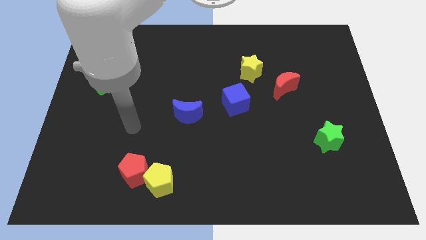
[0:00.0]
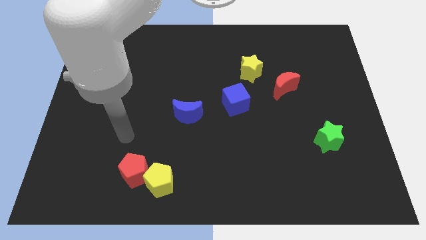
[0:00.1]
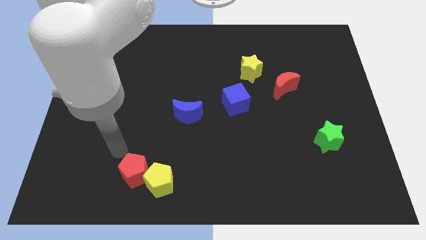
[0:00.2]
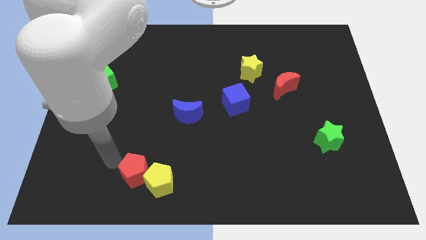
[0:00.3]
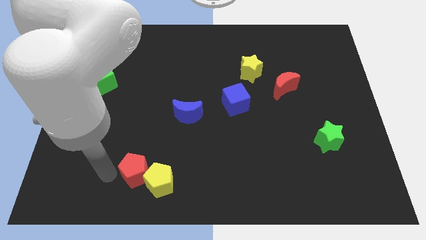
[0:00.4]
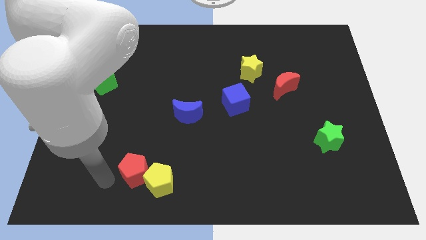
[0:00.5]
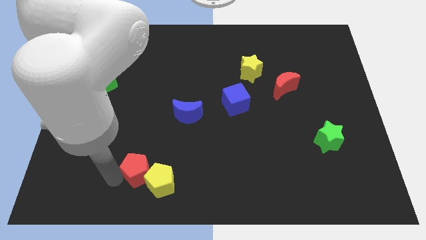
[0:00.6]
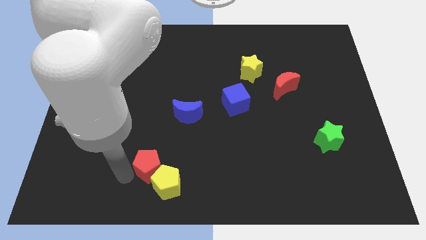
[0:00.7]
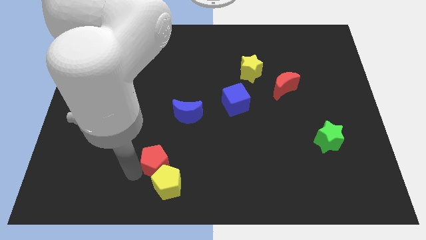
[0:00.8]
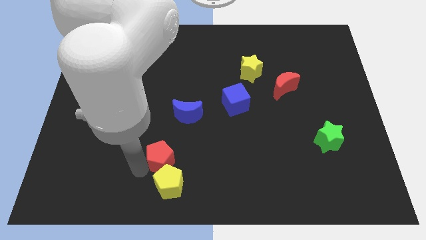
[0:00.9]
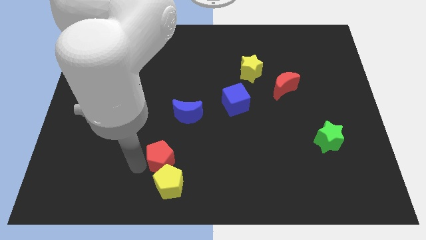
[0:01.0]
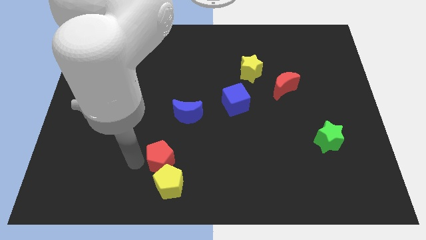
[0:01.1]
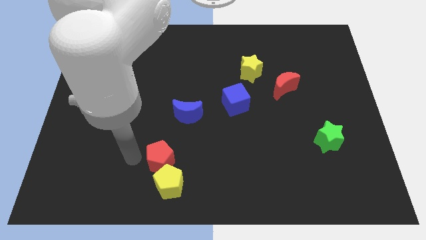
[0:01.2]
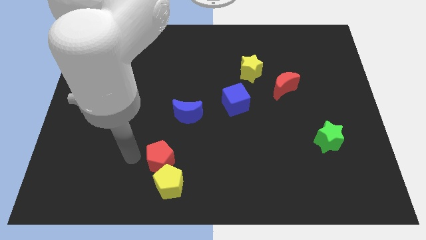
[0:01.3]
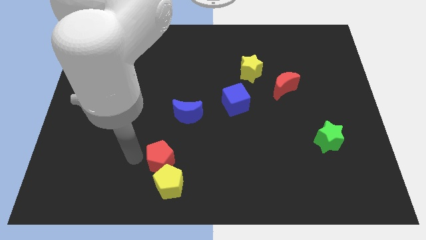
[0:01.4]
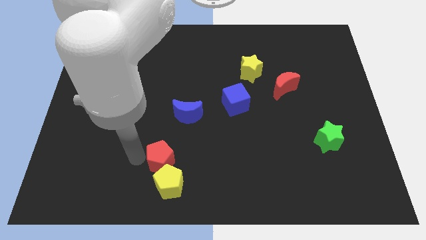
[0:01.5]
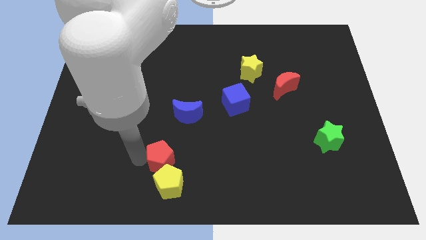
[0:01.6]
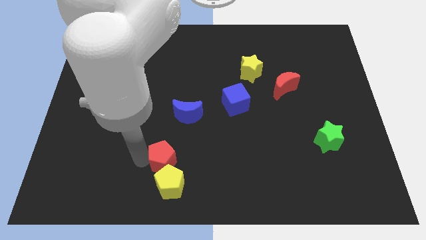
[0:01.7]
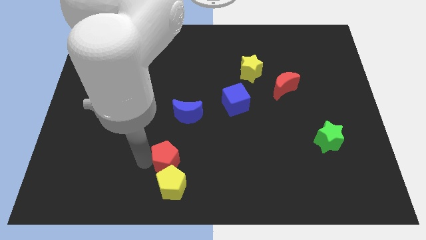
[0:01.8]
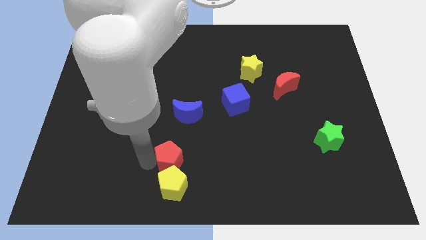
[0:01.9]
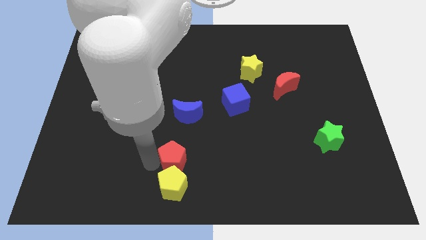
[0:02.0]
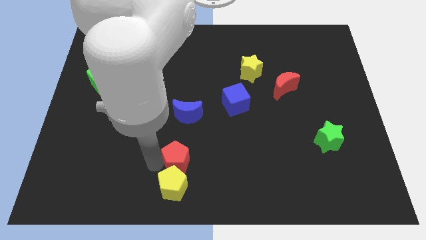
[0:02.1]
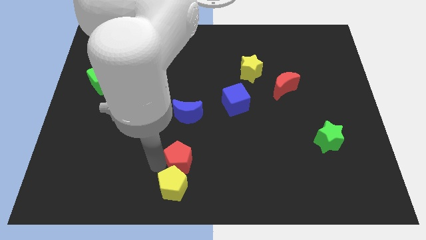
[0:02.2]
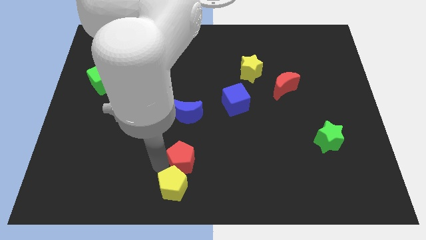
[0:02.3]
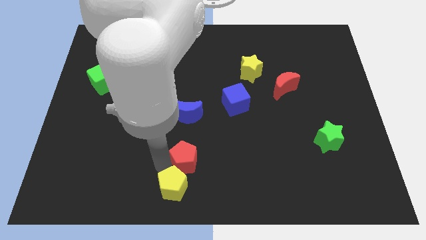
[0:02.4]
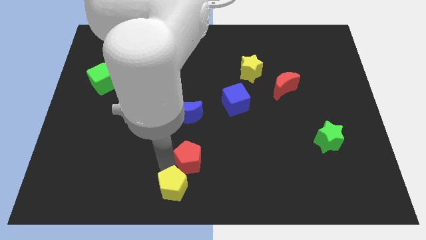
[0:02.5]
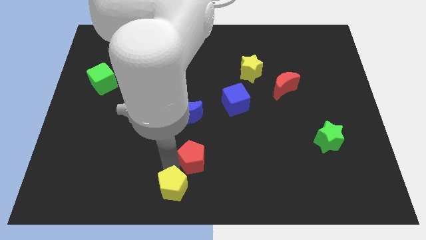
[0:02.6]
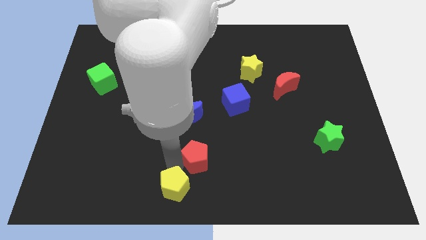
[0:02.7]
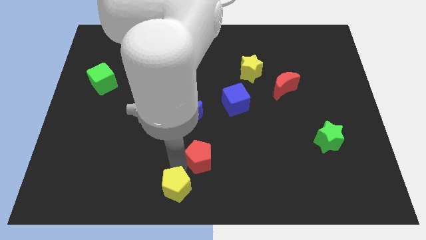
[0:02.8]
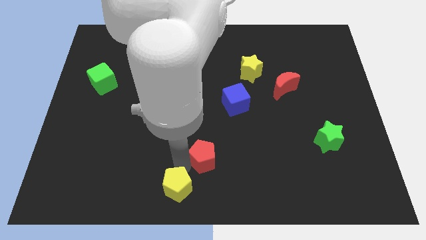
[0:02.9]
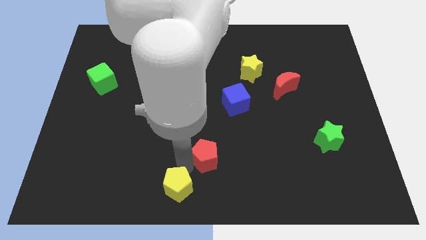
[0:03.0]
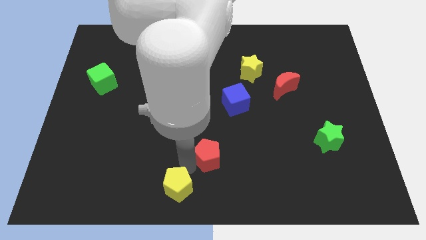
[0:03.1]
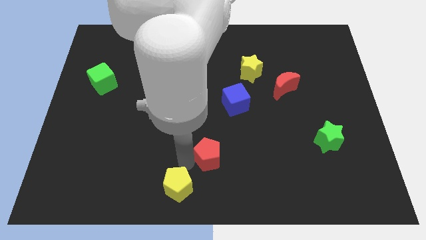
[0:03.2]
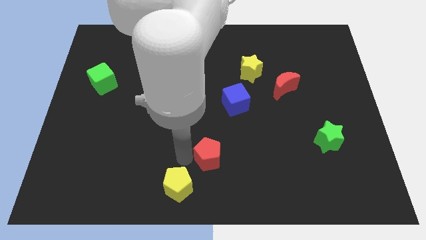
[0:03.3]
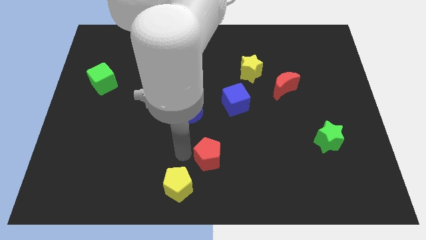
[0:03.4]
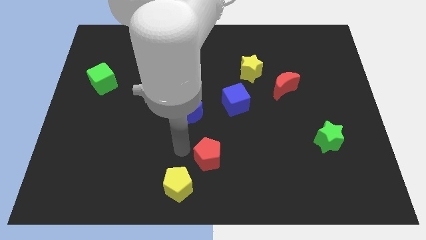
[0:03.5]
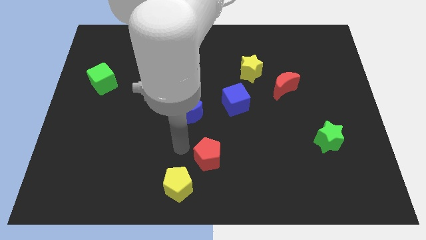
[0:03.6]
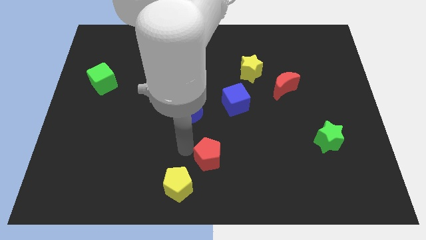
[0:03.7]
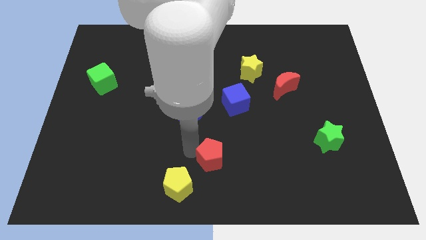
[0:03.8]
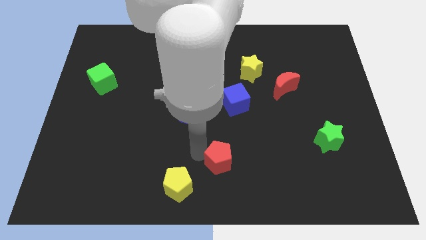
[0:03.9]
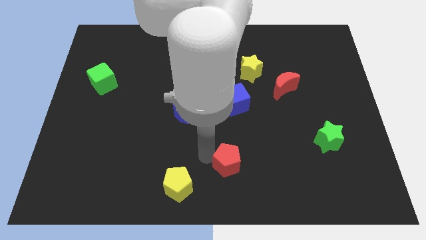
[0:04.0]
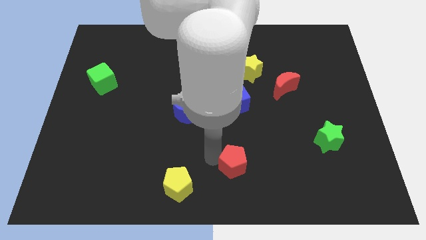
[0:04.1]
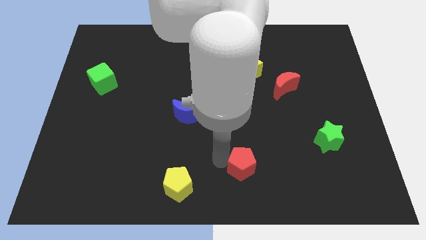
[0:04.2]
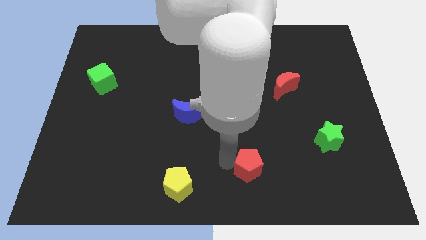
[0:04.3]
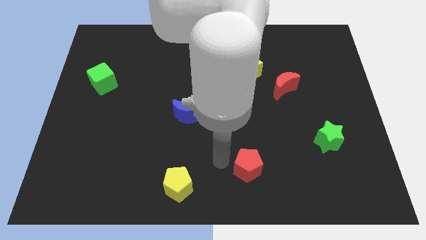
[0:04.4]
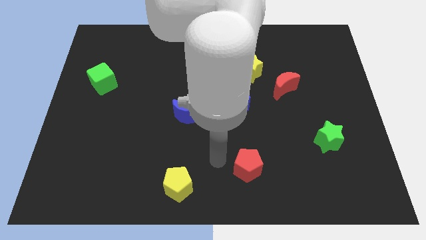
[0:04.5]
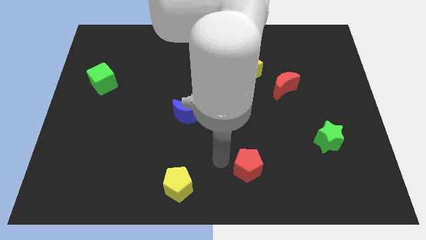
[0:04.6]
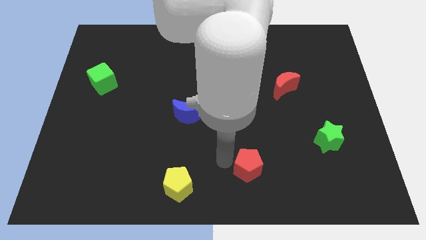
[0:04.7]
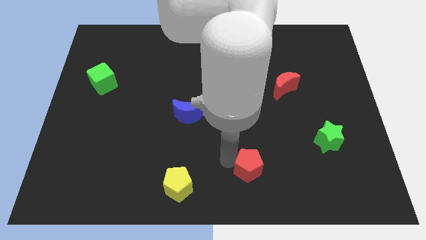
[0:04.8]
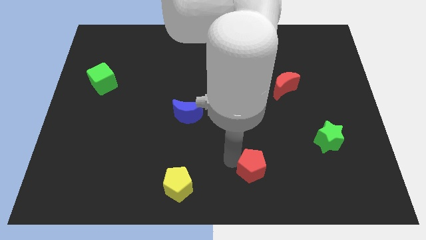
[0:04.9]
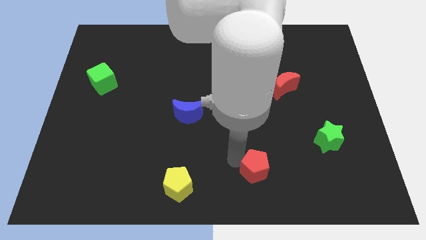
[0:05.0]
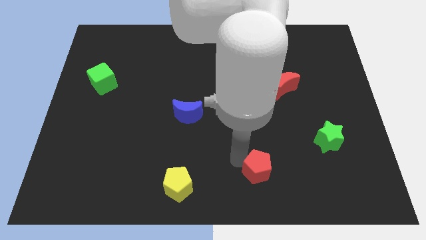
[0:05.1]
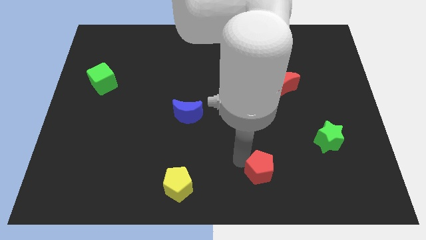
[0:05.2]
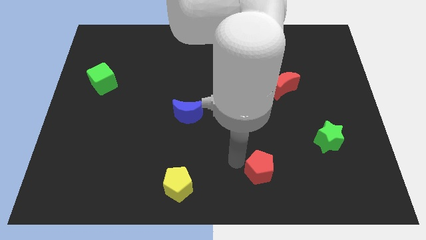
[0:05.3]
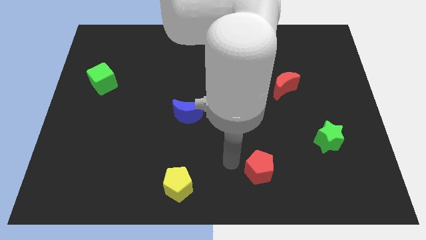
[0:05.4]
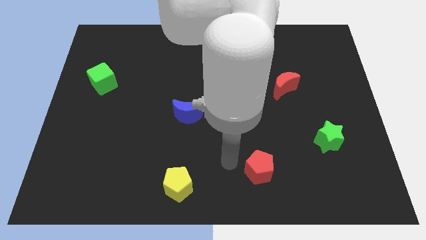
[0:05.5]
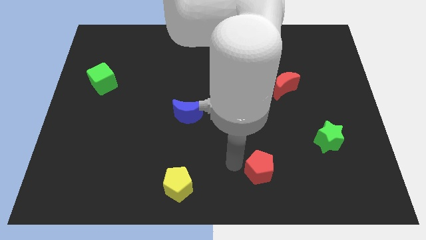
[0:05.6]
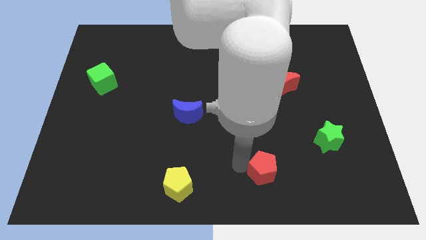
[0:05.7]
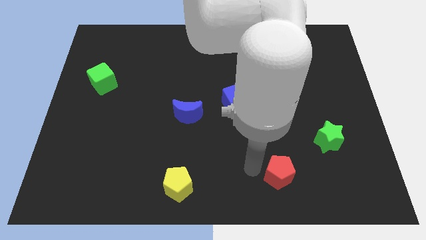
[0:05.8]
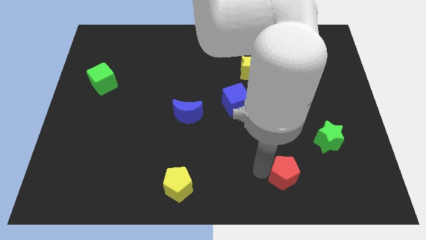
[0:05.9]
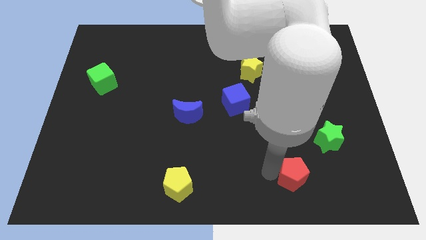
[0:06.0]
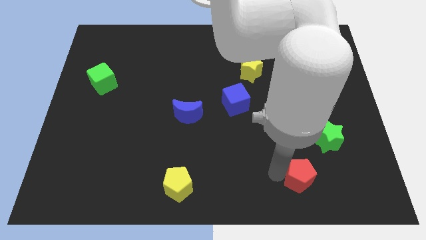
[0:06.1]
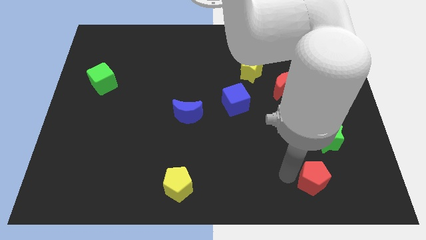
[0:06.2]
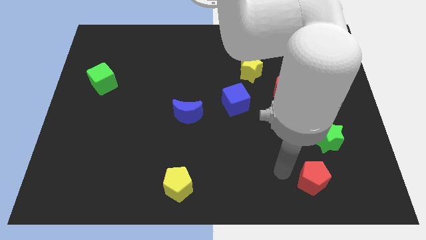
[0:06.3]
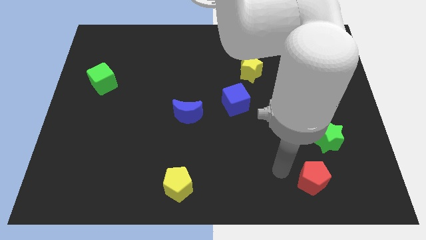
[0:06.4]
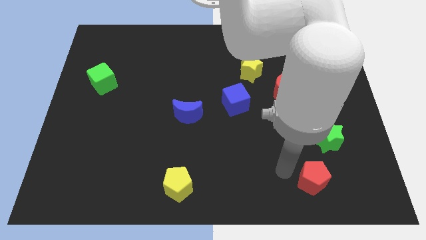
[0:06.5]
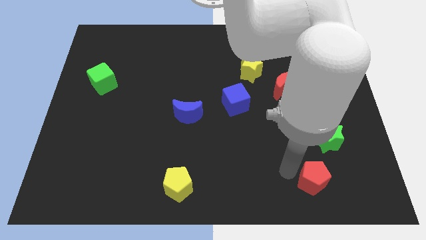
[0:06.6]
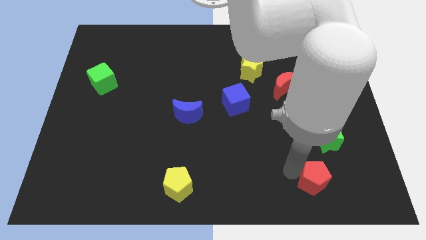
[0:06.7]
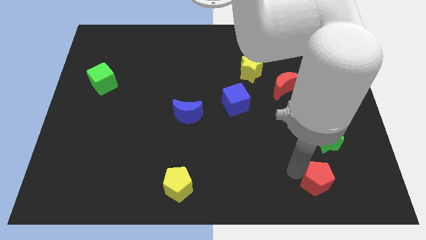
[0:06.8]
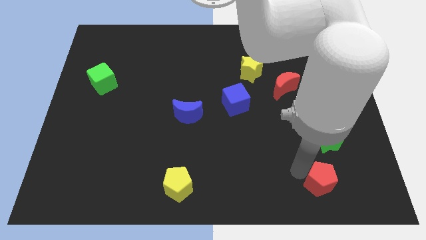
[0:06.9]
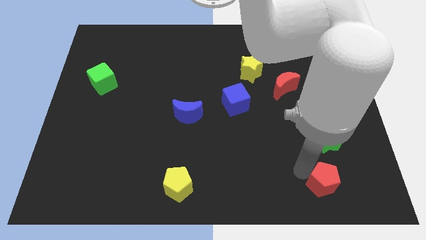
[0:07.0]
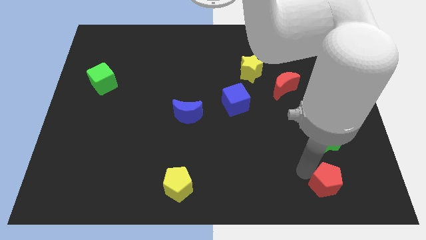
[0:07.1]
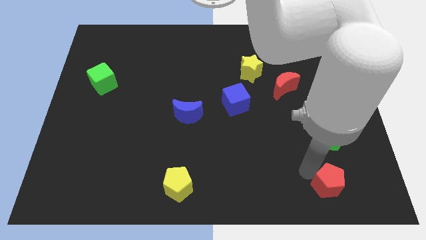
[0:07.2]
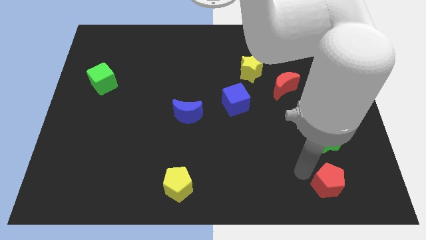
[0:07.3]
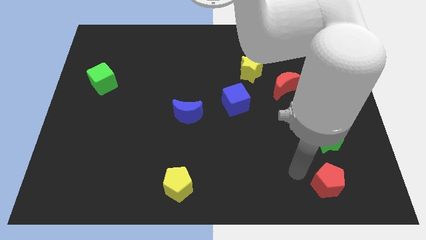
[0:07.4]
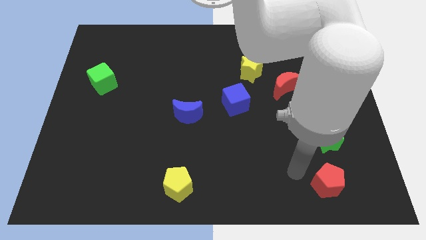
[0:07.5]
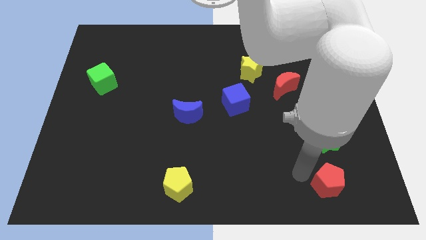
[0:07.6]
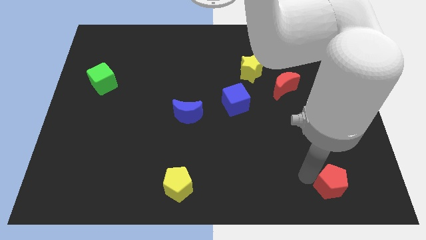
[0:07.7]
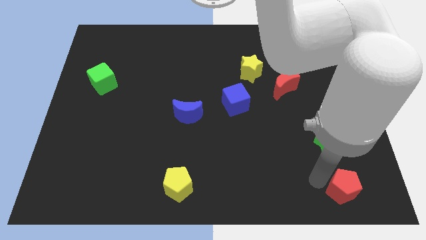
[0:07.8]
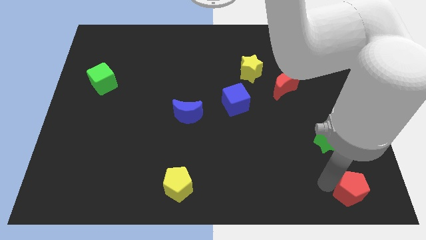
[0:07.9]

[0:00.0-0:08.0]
put the red pentagon to the bottom right of the board
